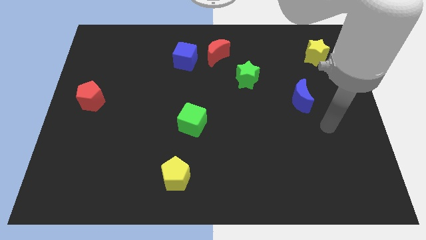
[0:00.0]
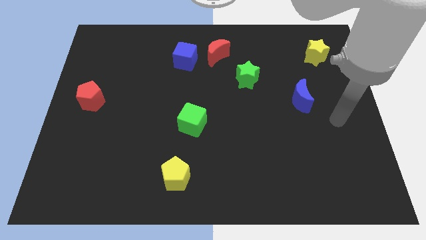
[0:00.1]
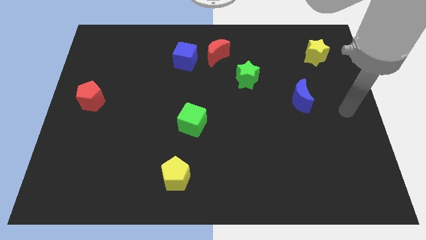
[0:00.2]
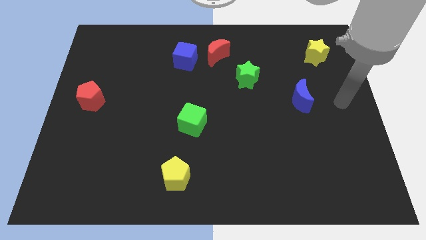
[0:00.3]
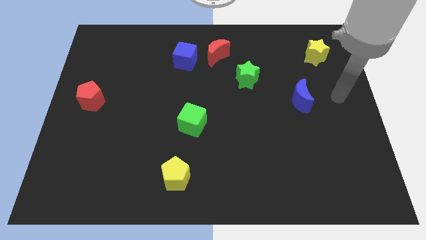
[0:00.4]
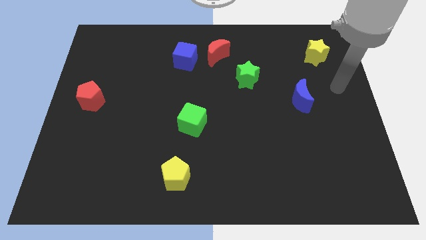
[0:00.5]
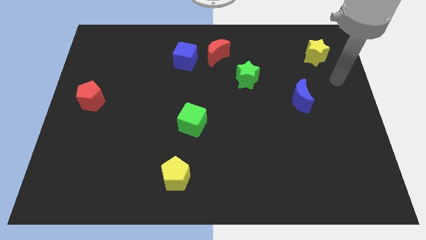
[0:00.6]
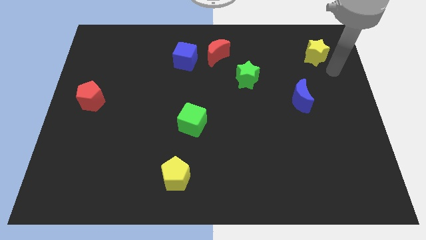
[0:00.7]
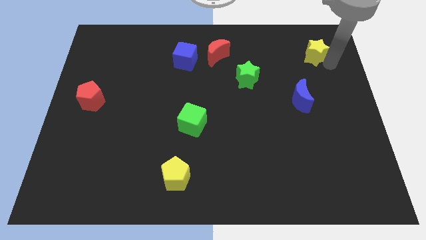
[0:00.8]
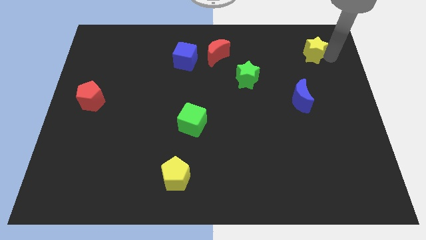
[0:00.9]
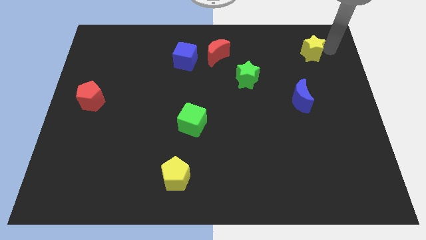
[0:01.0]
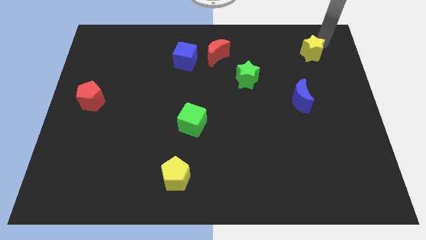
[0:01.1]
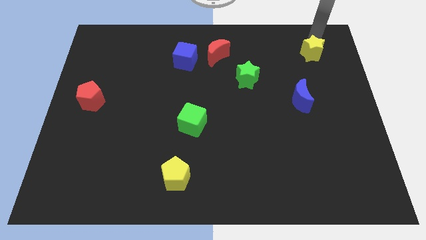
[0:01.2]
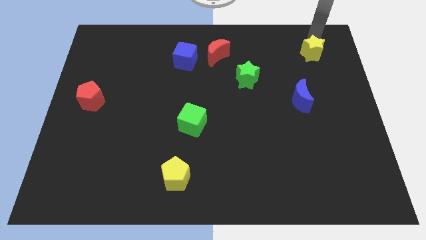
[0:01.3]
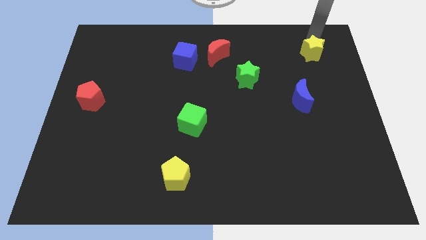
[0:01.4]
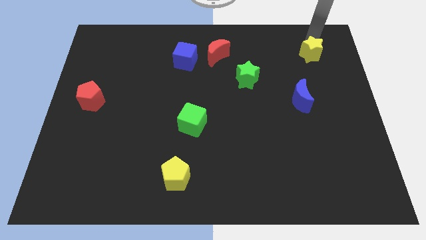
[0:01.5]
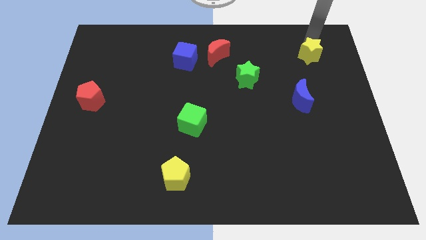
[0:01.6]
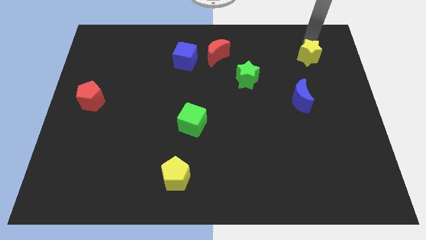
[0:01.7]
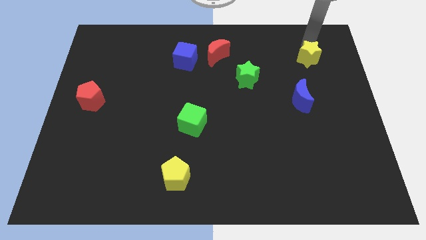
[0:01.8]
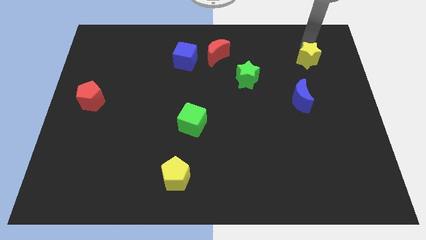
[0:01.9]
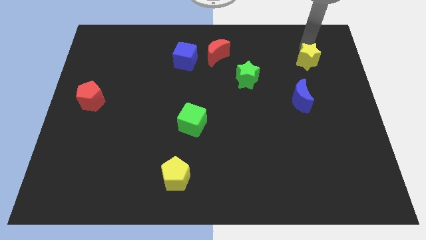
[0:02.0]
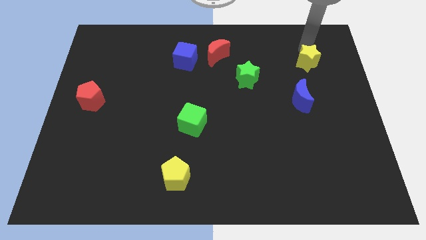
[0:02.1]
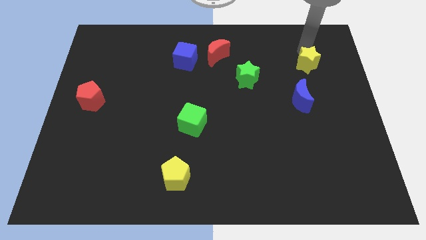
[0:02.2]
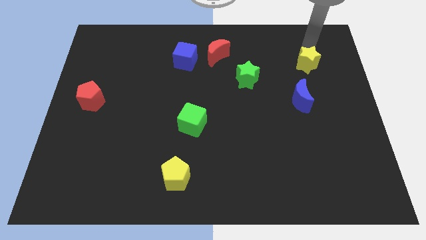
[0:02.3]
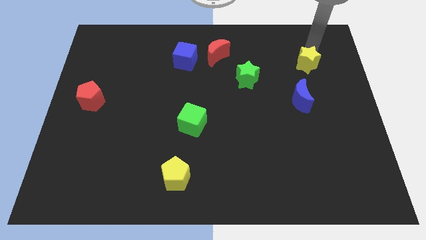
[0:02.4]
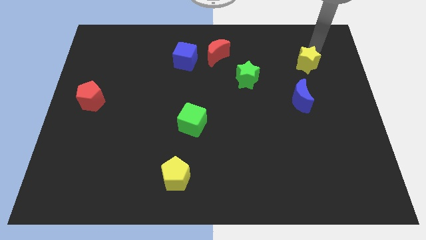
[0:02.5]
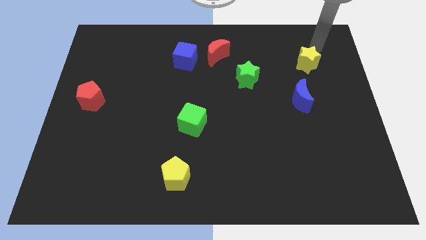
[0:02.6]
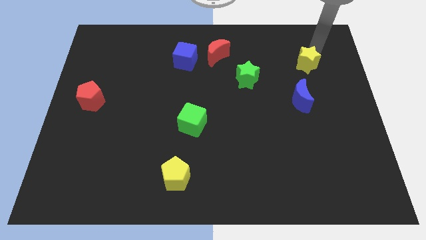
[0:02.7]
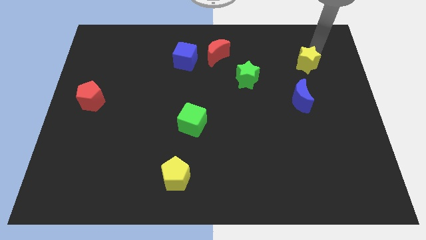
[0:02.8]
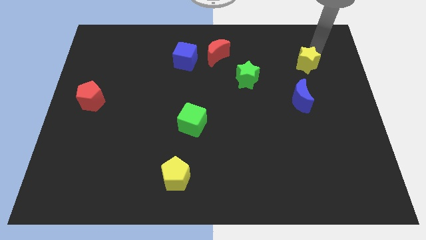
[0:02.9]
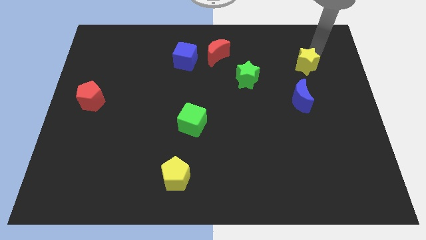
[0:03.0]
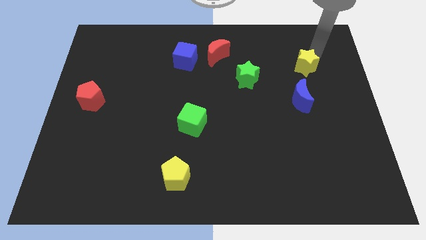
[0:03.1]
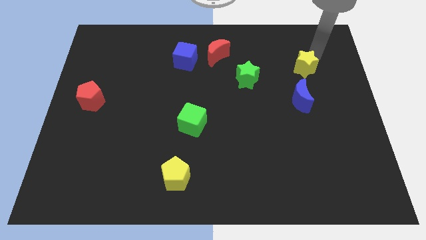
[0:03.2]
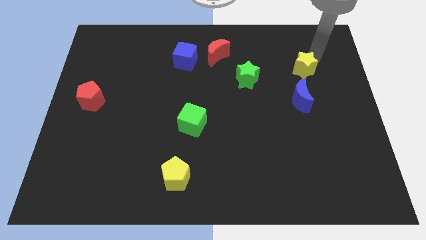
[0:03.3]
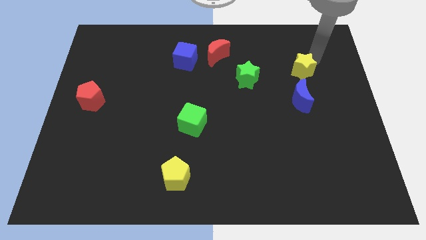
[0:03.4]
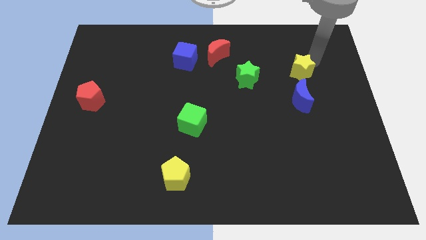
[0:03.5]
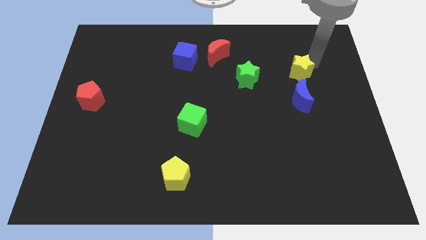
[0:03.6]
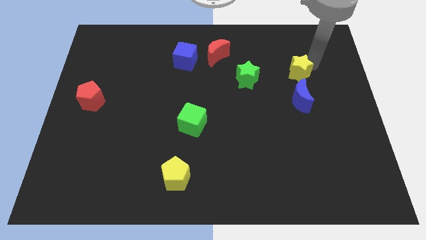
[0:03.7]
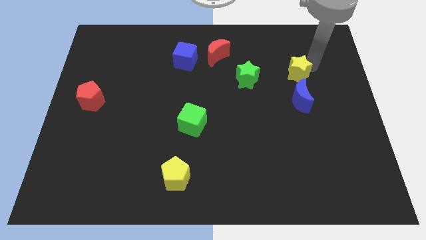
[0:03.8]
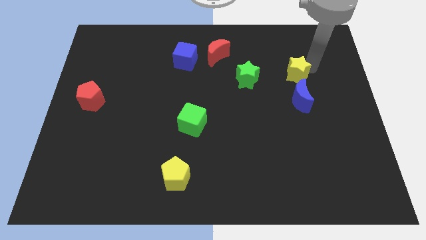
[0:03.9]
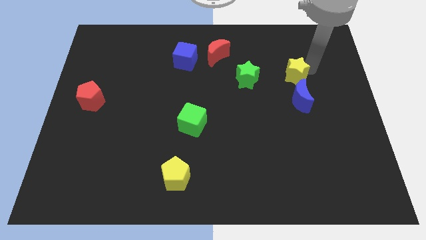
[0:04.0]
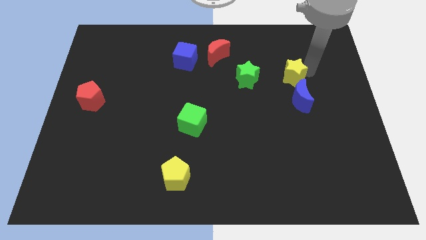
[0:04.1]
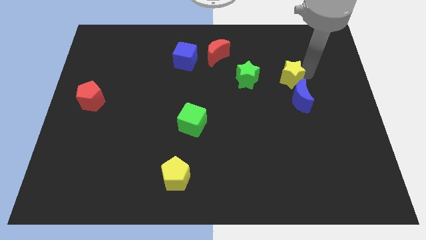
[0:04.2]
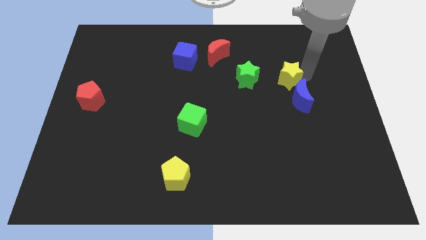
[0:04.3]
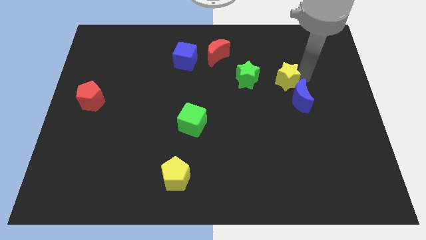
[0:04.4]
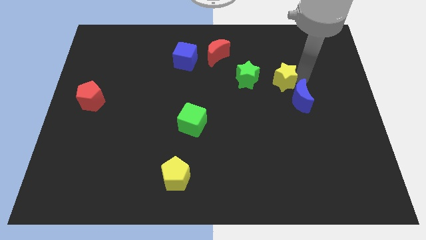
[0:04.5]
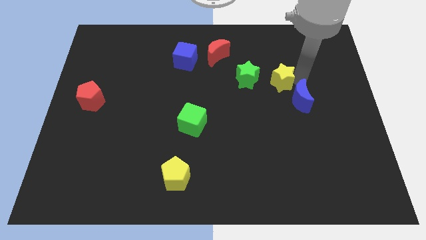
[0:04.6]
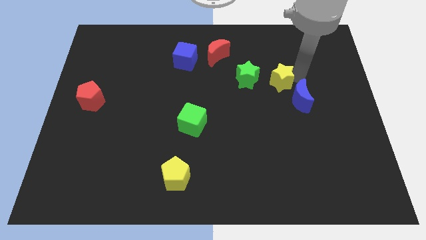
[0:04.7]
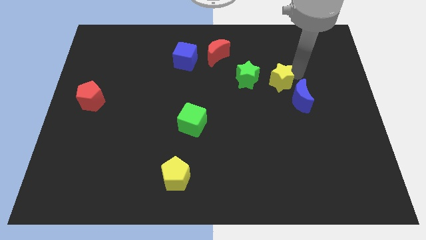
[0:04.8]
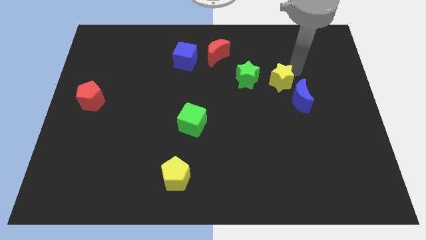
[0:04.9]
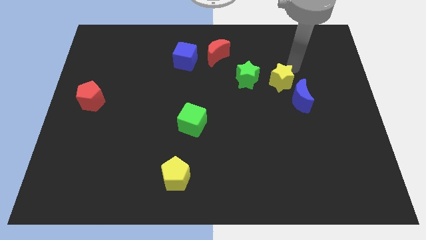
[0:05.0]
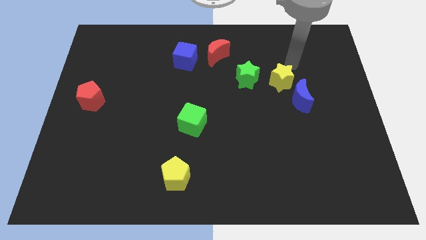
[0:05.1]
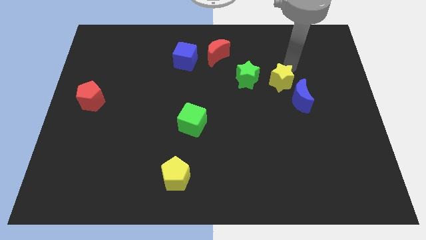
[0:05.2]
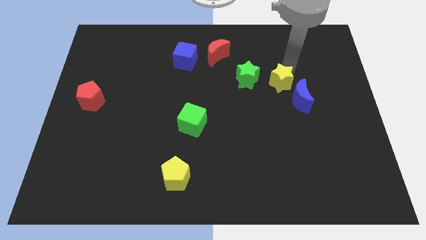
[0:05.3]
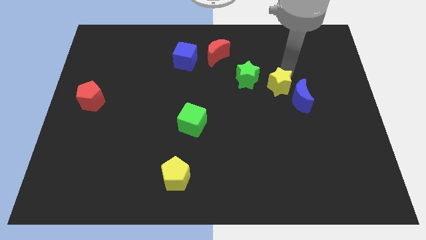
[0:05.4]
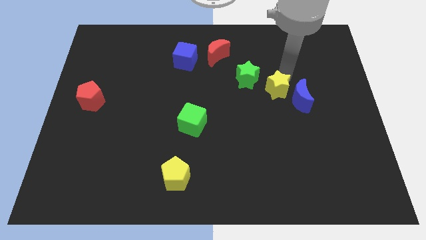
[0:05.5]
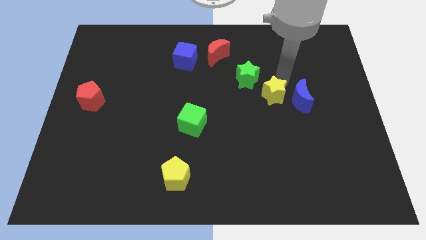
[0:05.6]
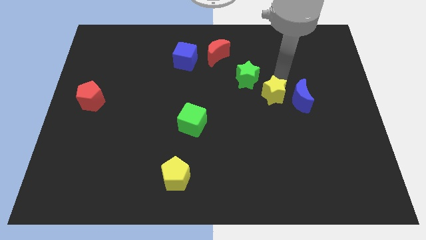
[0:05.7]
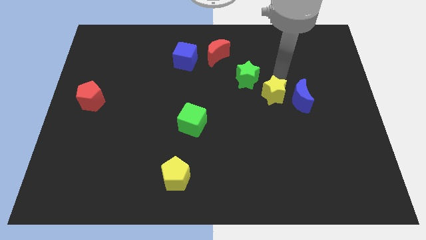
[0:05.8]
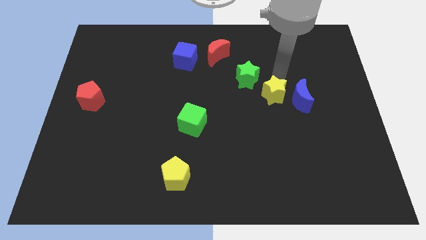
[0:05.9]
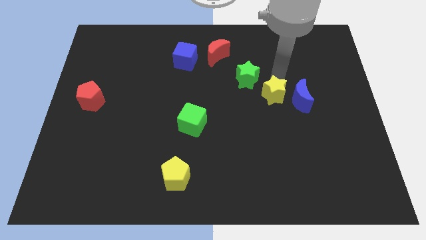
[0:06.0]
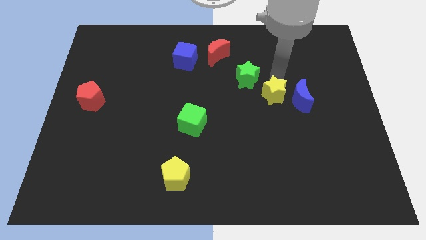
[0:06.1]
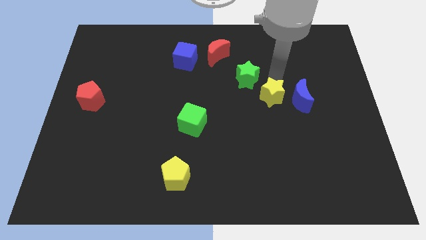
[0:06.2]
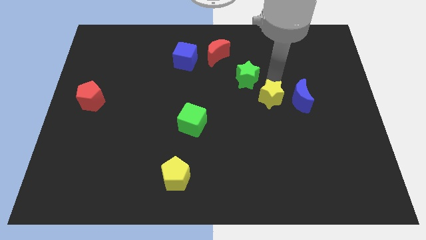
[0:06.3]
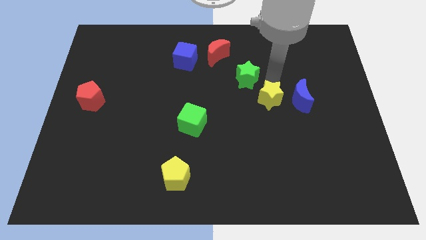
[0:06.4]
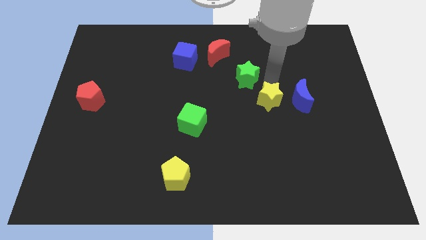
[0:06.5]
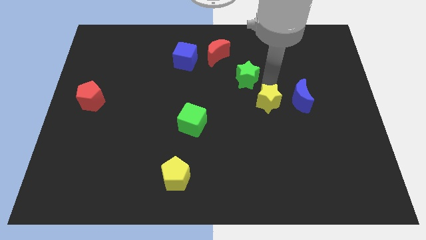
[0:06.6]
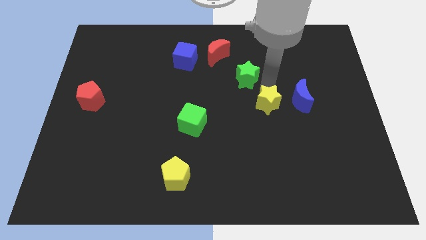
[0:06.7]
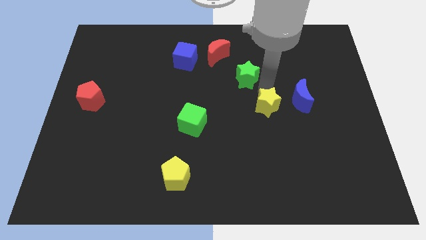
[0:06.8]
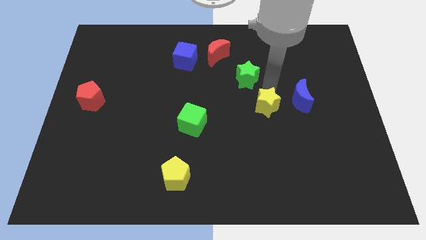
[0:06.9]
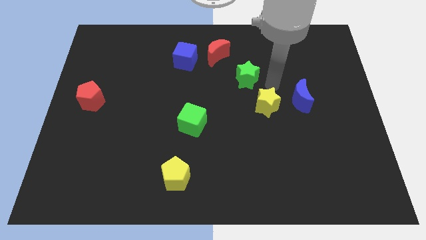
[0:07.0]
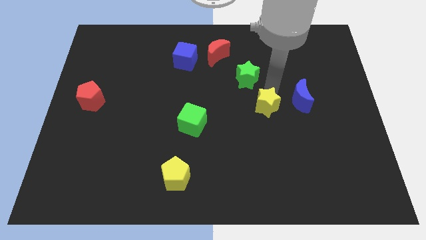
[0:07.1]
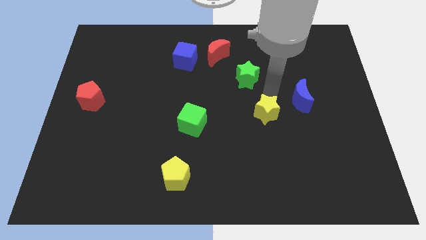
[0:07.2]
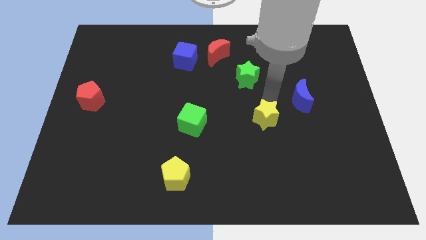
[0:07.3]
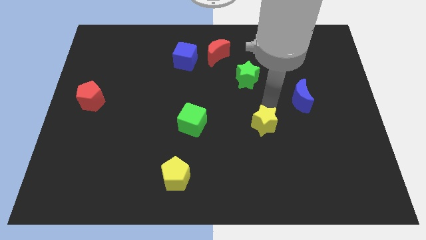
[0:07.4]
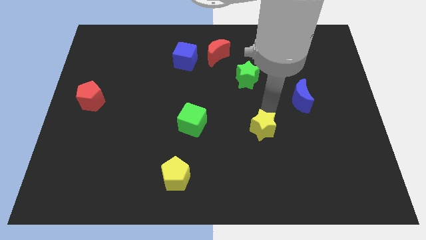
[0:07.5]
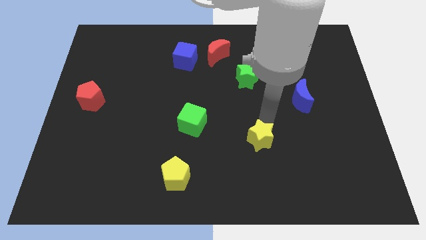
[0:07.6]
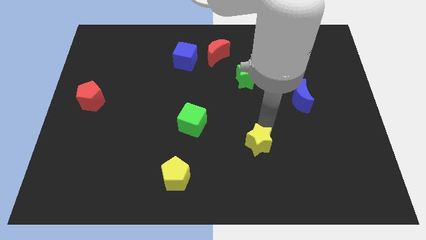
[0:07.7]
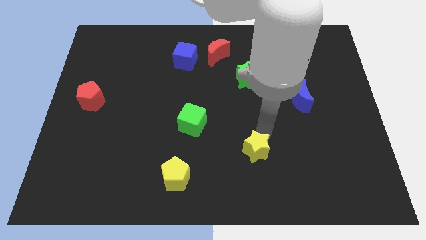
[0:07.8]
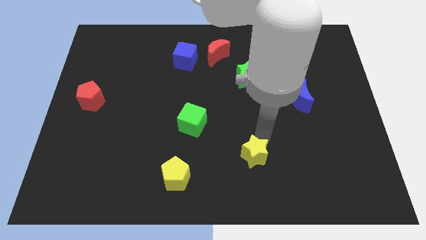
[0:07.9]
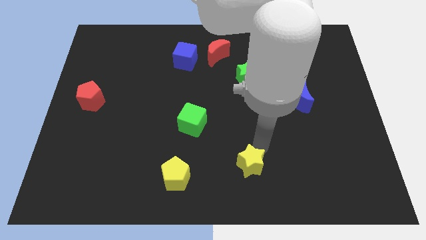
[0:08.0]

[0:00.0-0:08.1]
slide the yellow star to the right of the yellow pentagon

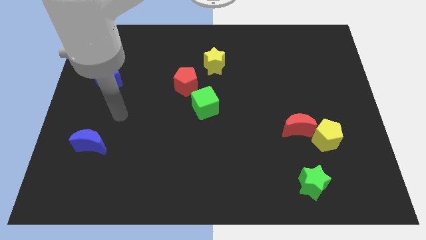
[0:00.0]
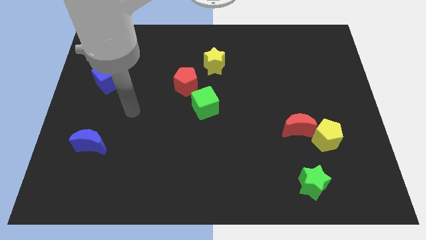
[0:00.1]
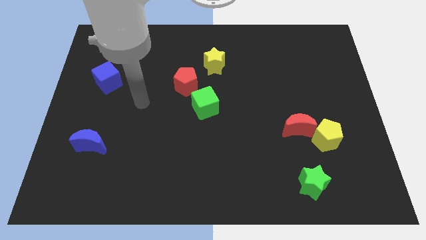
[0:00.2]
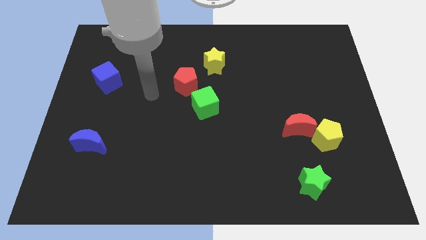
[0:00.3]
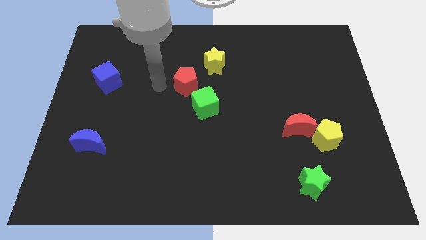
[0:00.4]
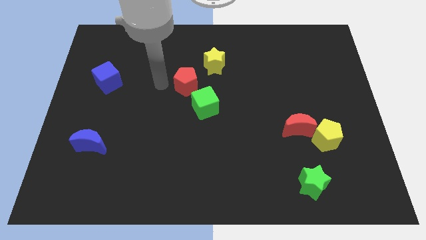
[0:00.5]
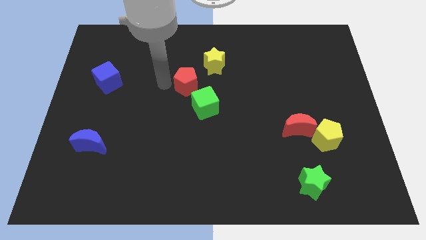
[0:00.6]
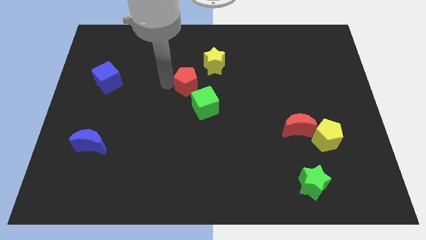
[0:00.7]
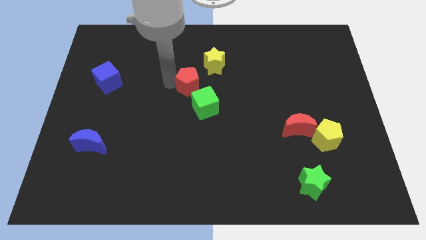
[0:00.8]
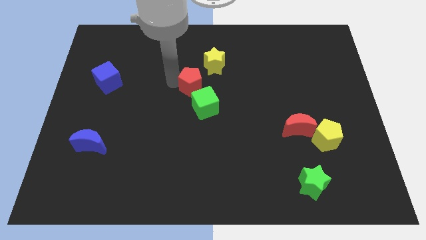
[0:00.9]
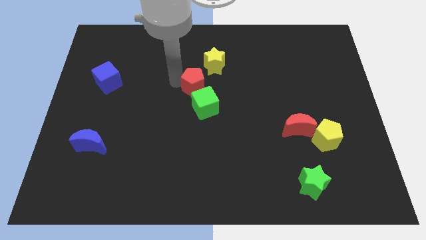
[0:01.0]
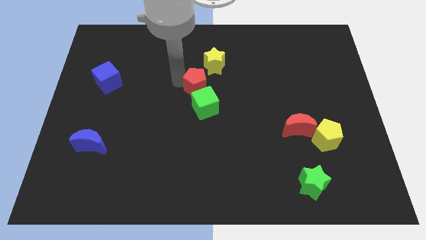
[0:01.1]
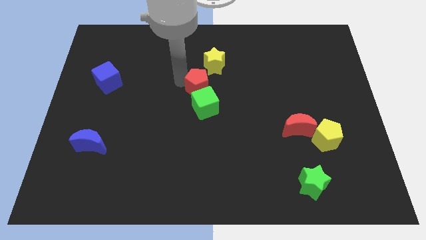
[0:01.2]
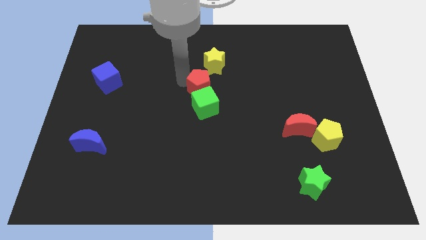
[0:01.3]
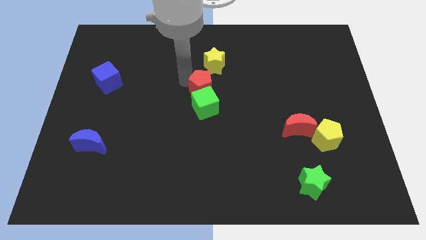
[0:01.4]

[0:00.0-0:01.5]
slide the red pentagon to the top right side of the green cube
